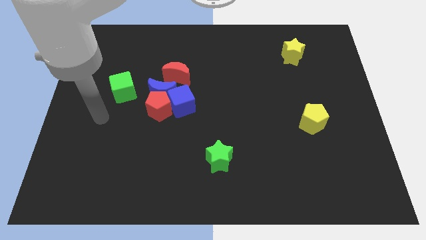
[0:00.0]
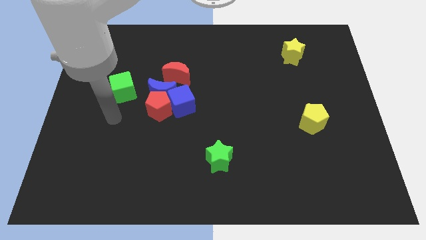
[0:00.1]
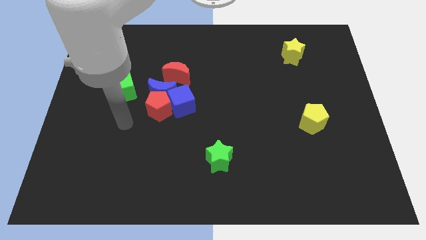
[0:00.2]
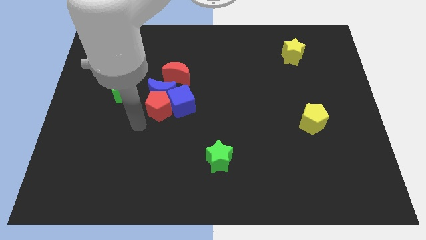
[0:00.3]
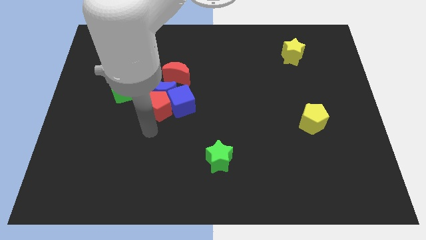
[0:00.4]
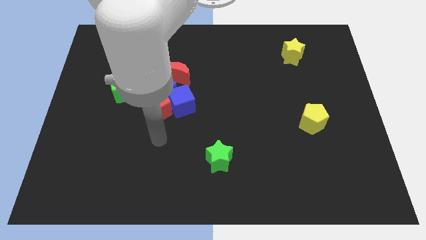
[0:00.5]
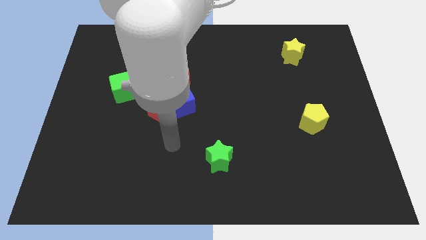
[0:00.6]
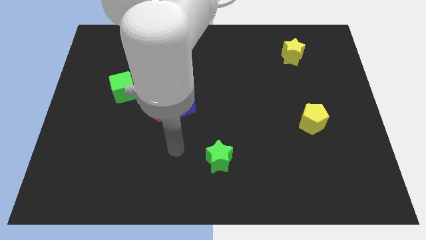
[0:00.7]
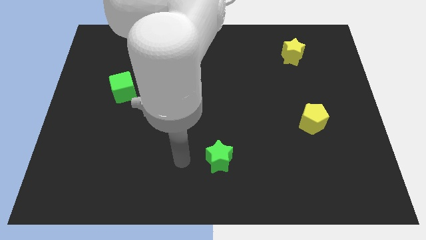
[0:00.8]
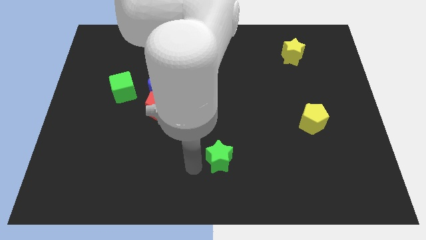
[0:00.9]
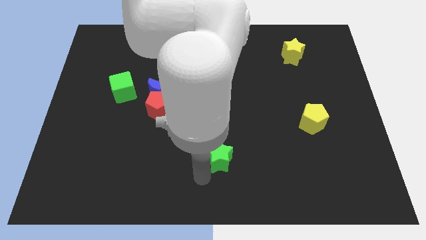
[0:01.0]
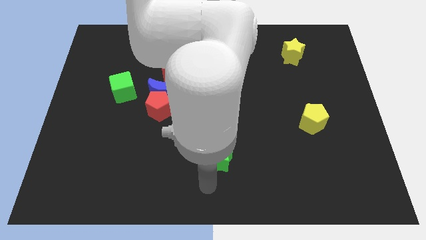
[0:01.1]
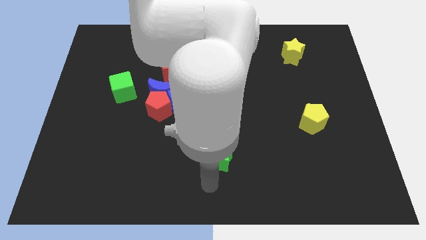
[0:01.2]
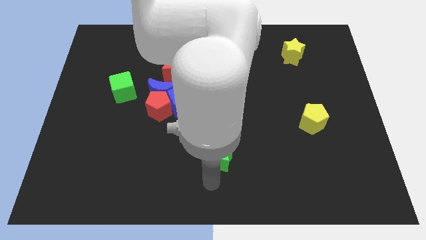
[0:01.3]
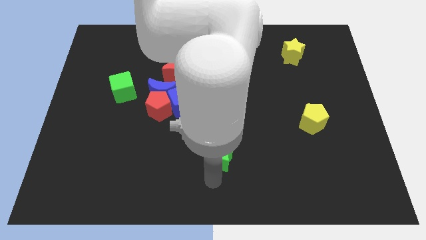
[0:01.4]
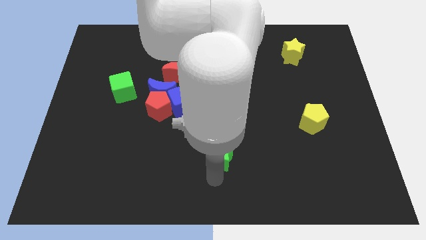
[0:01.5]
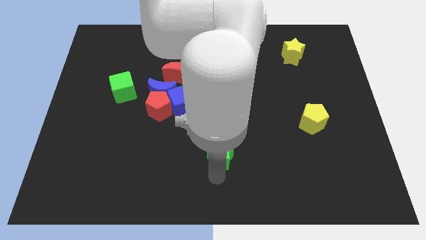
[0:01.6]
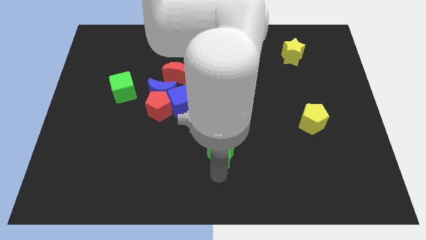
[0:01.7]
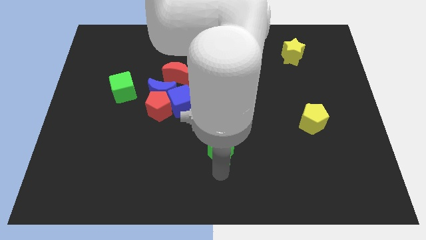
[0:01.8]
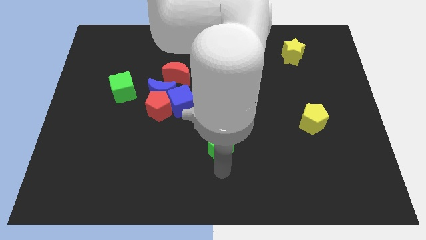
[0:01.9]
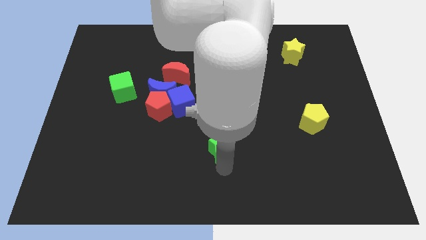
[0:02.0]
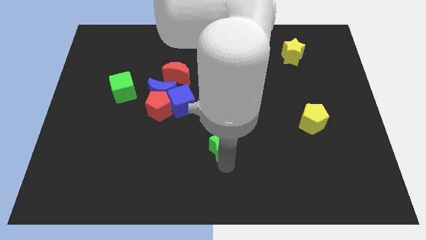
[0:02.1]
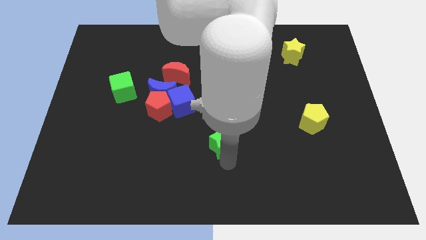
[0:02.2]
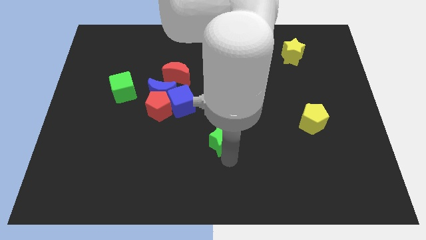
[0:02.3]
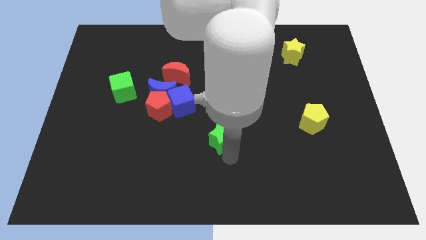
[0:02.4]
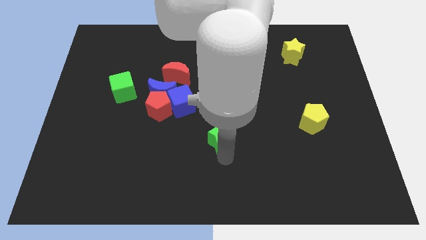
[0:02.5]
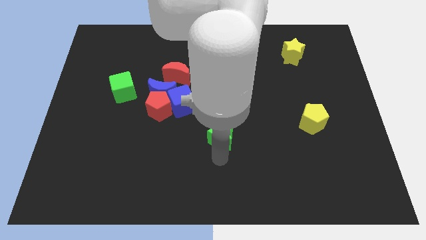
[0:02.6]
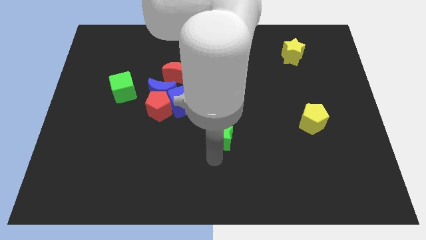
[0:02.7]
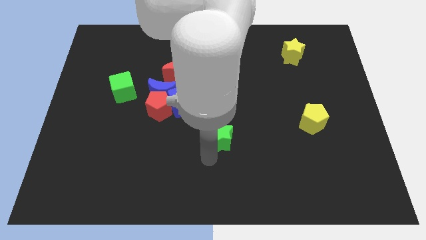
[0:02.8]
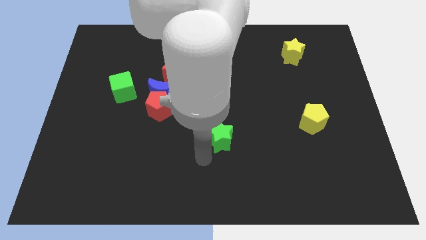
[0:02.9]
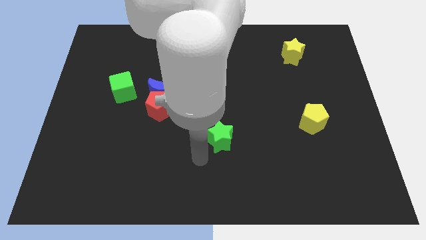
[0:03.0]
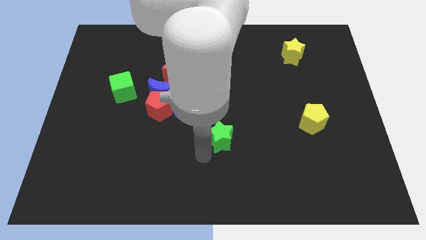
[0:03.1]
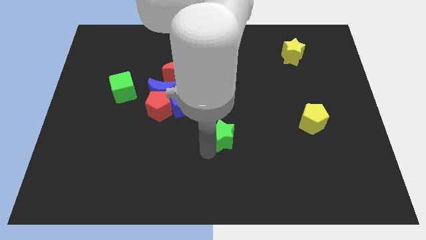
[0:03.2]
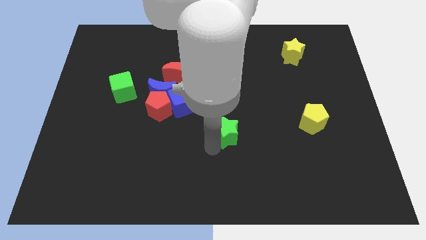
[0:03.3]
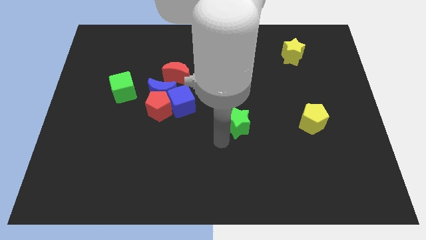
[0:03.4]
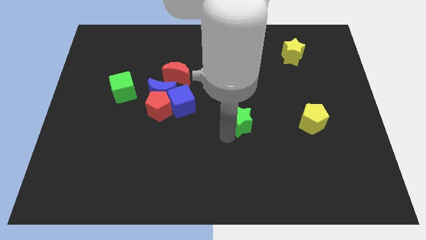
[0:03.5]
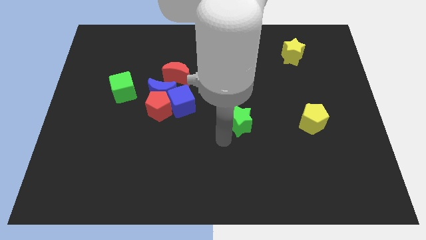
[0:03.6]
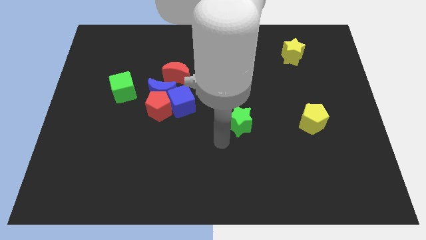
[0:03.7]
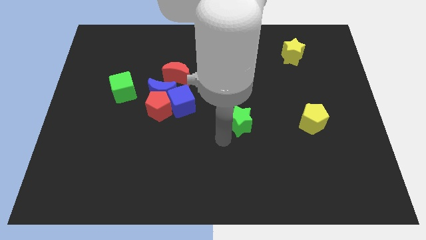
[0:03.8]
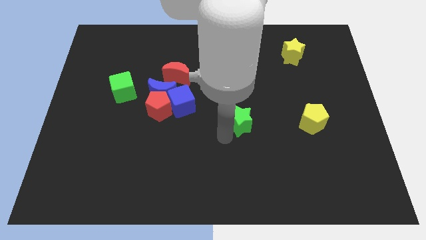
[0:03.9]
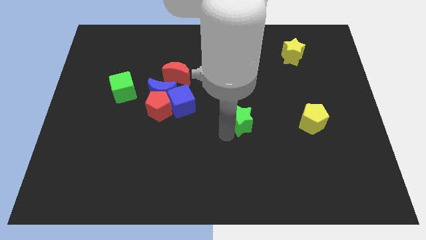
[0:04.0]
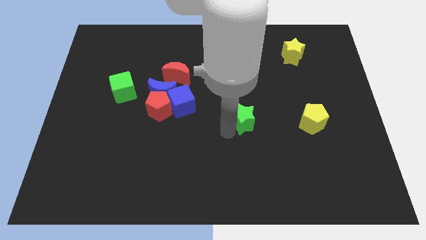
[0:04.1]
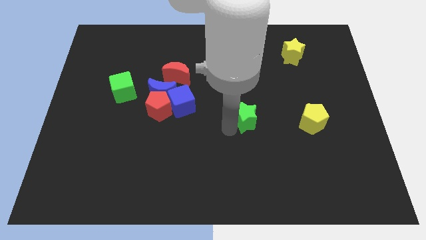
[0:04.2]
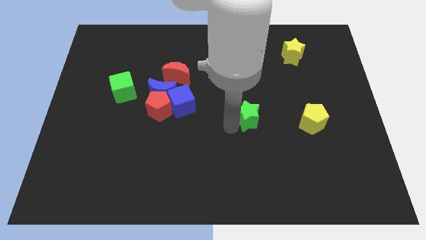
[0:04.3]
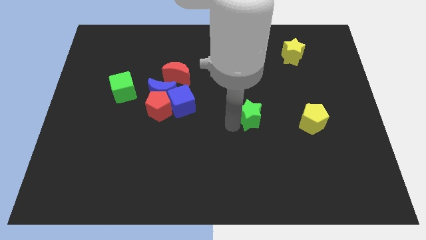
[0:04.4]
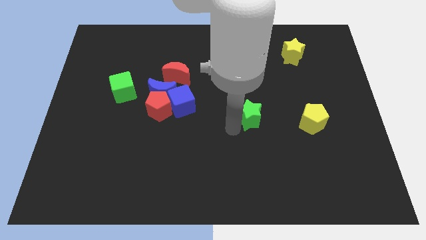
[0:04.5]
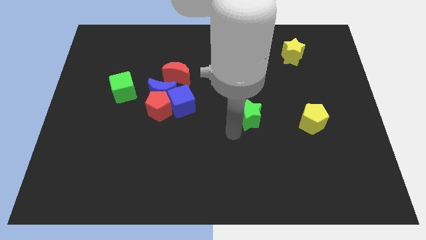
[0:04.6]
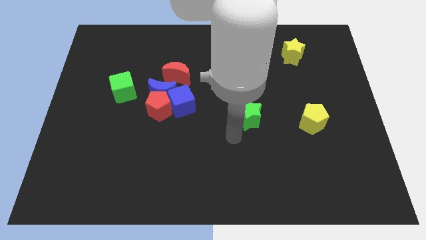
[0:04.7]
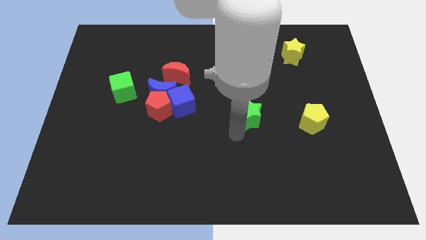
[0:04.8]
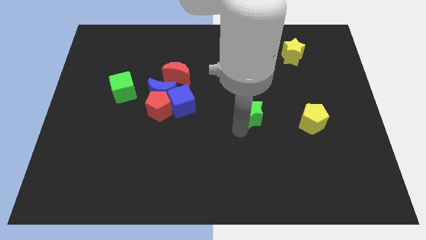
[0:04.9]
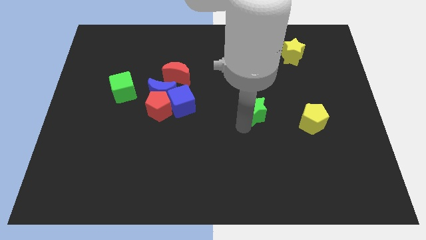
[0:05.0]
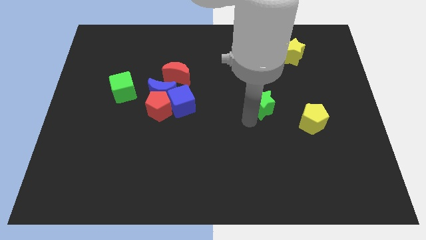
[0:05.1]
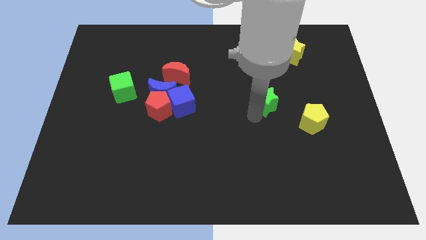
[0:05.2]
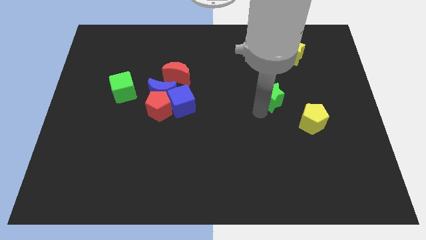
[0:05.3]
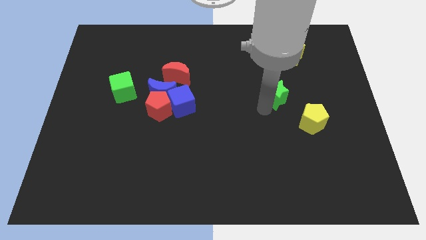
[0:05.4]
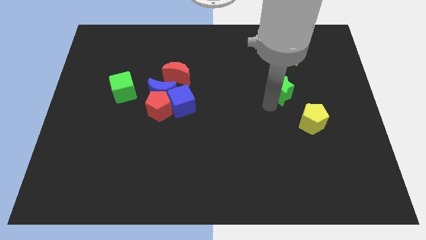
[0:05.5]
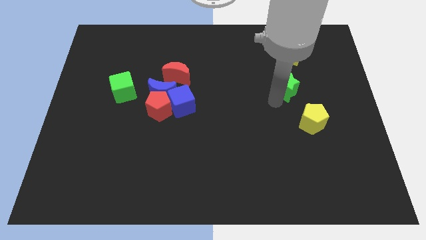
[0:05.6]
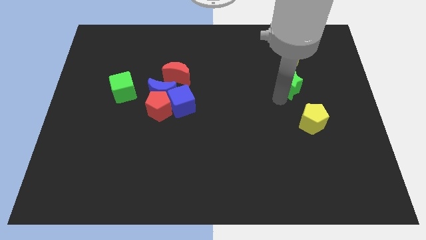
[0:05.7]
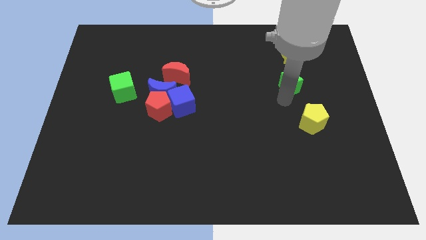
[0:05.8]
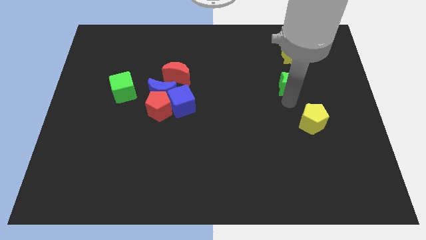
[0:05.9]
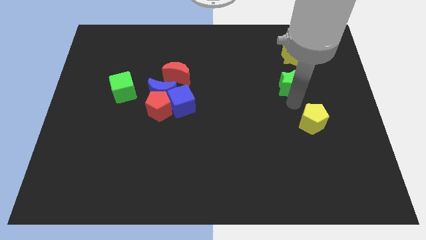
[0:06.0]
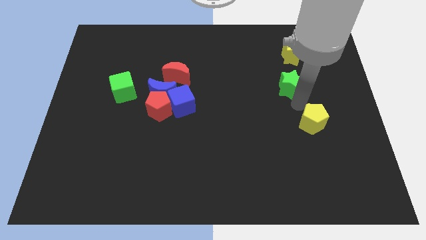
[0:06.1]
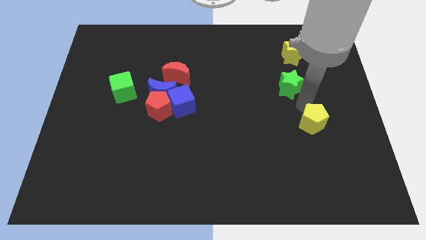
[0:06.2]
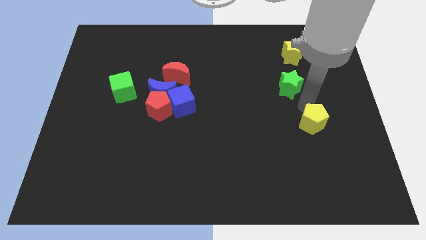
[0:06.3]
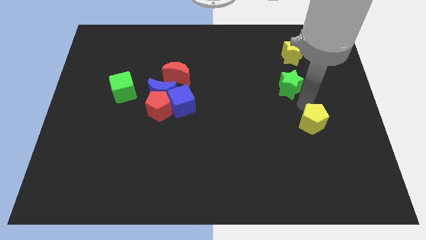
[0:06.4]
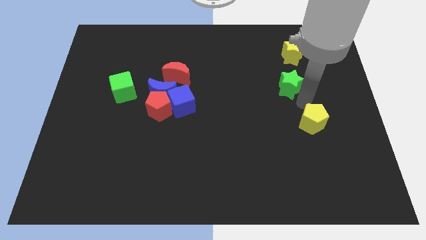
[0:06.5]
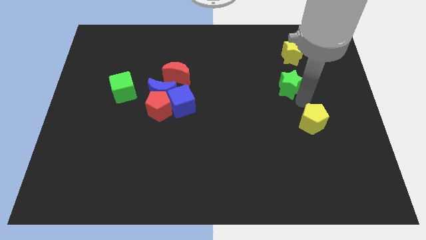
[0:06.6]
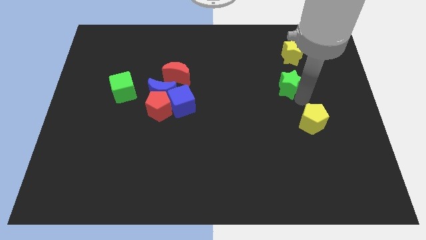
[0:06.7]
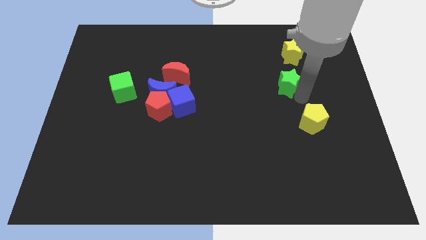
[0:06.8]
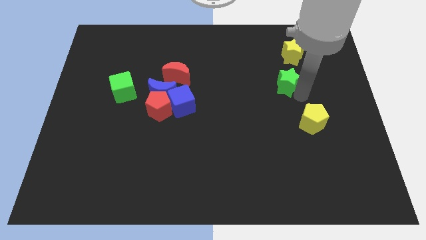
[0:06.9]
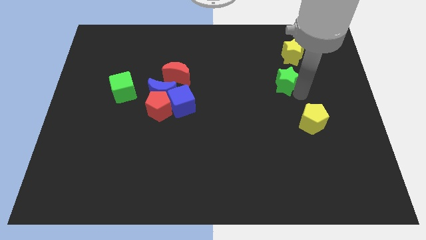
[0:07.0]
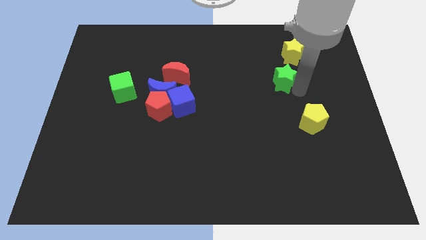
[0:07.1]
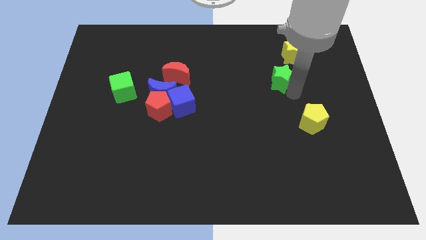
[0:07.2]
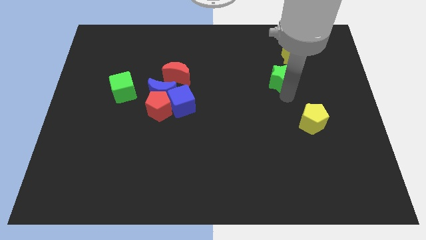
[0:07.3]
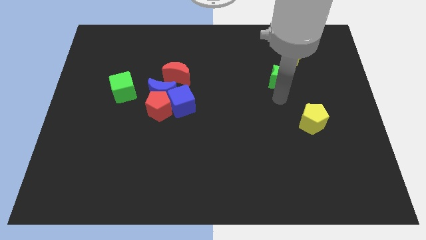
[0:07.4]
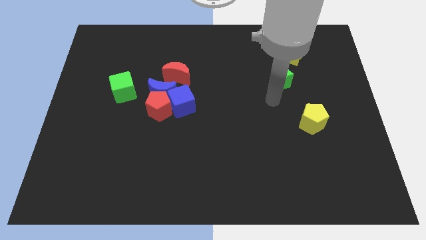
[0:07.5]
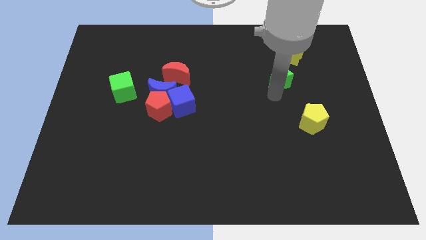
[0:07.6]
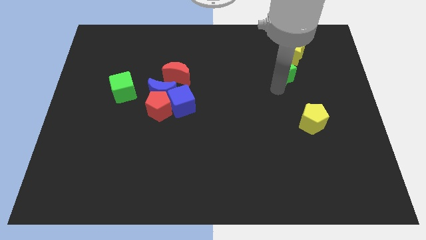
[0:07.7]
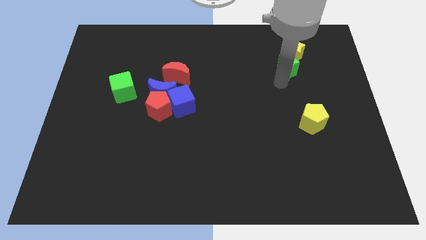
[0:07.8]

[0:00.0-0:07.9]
push the green star close to the yellow star
